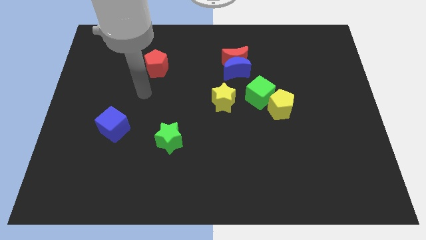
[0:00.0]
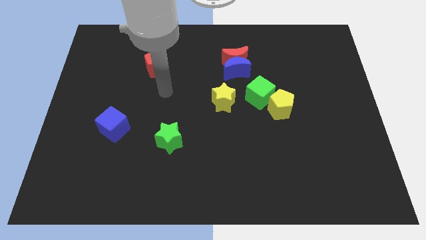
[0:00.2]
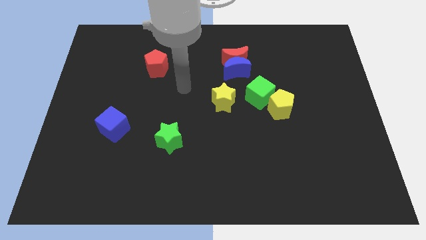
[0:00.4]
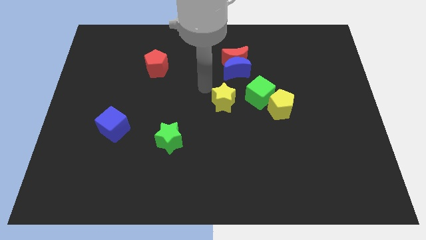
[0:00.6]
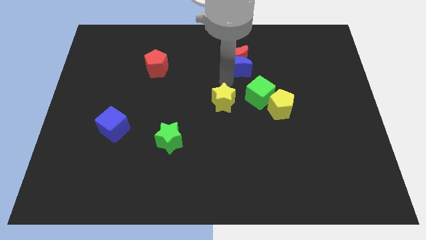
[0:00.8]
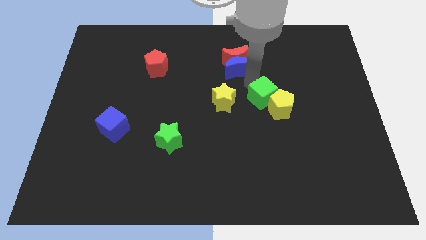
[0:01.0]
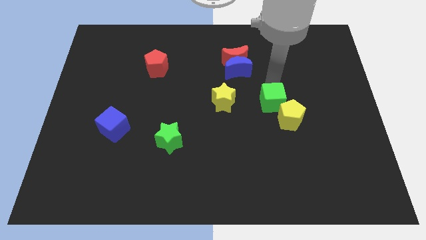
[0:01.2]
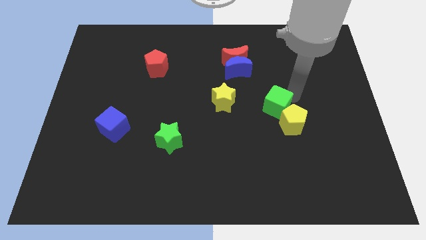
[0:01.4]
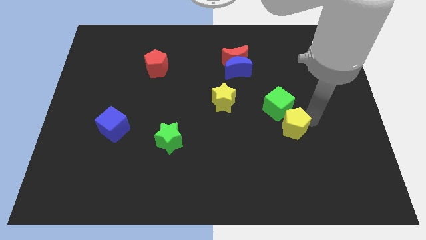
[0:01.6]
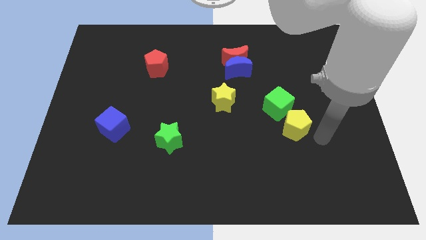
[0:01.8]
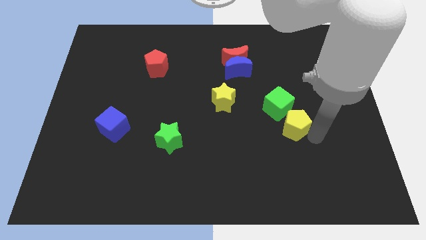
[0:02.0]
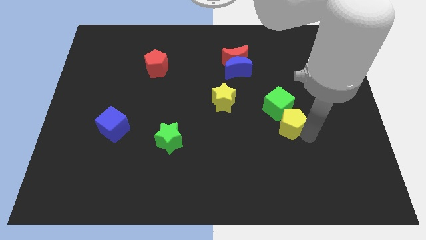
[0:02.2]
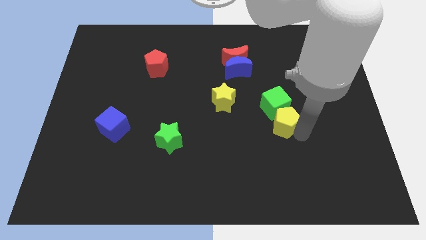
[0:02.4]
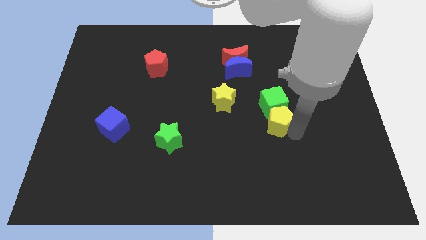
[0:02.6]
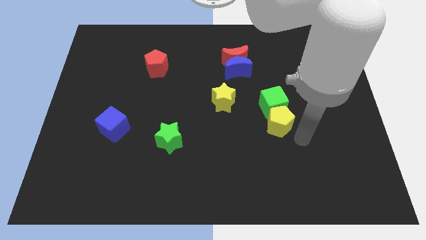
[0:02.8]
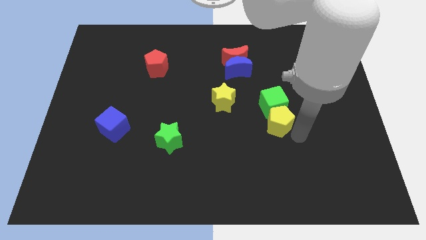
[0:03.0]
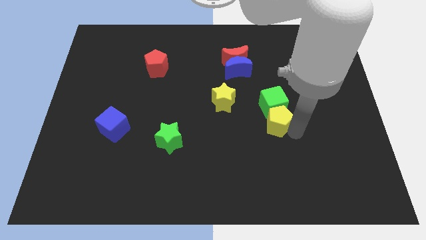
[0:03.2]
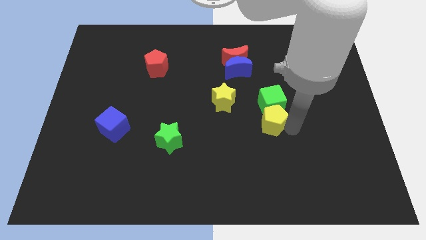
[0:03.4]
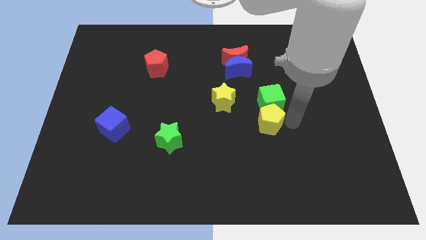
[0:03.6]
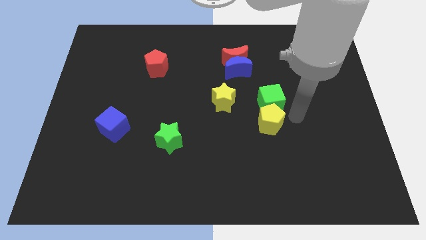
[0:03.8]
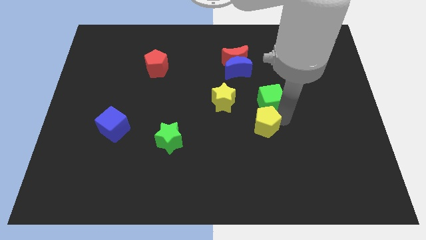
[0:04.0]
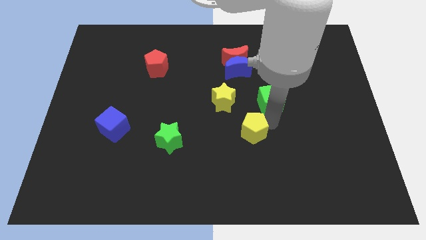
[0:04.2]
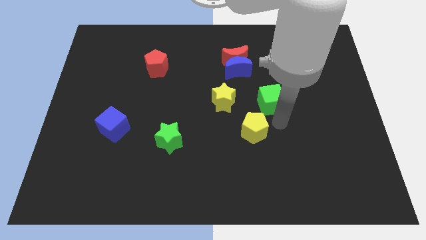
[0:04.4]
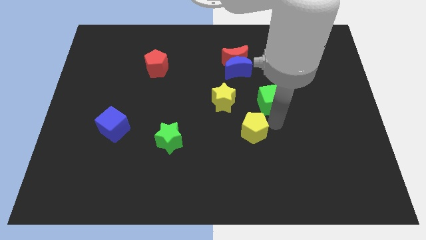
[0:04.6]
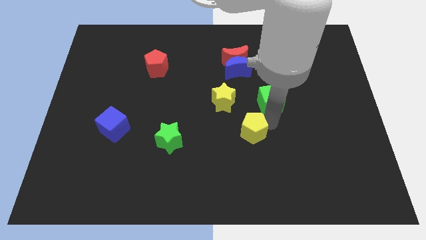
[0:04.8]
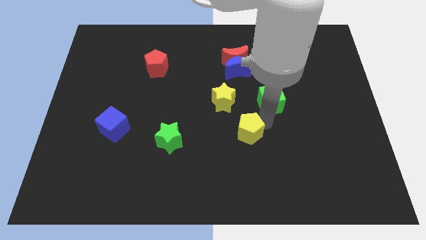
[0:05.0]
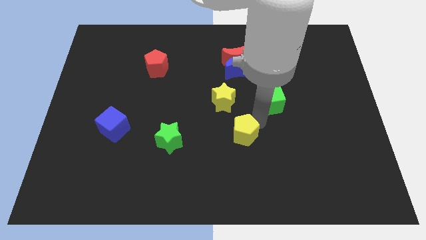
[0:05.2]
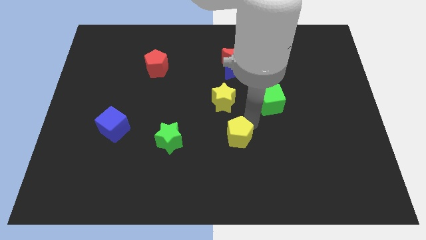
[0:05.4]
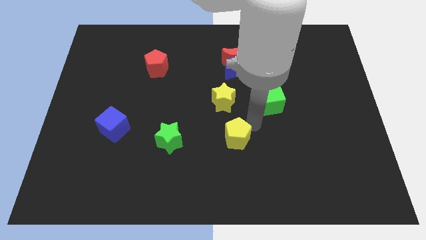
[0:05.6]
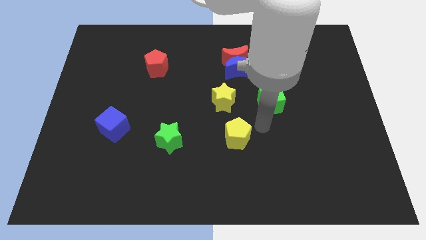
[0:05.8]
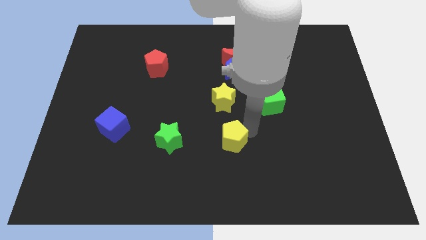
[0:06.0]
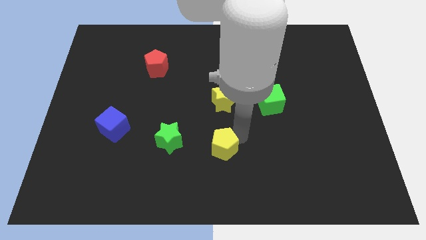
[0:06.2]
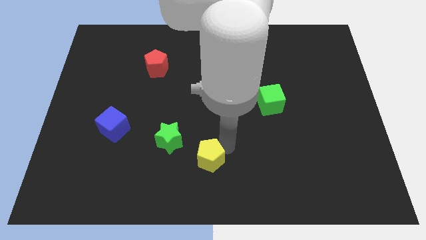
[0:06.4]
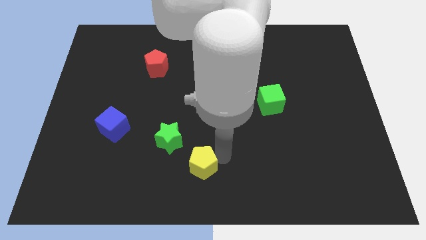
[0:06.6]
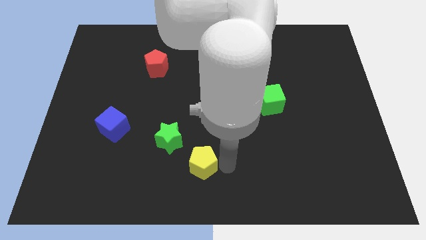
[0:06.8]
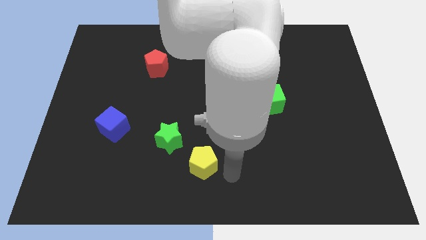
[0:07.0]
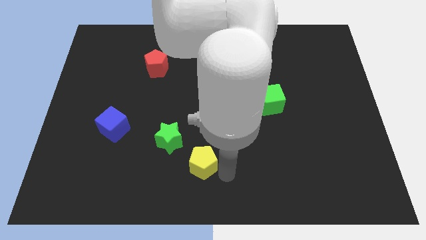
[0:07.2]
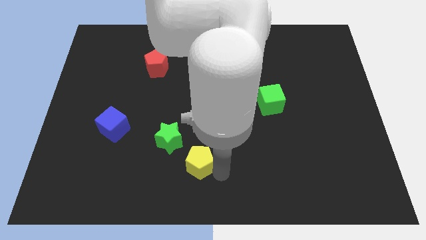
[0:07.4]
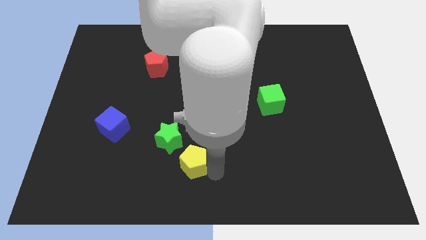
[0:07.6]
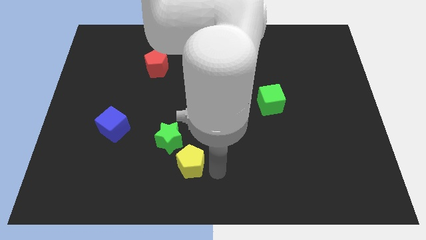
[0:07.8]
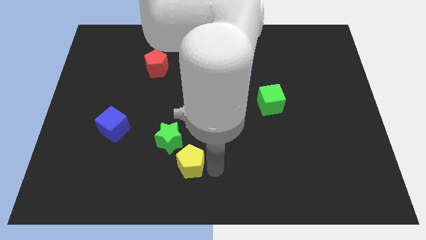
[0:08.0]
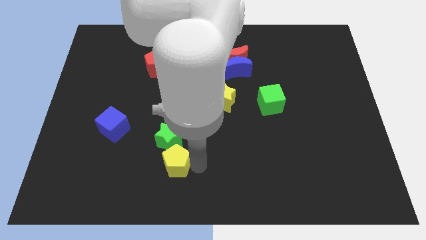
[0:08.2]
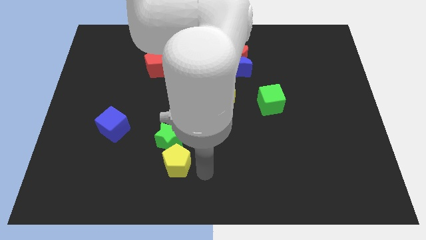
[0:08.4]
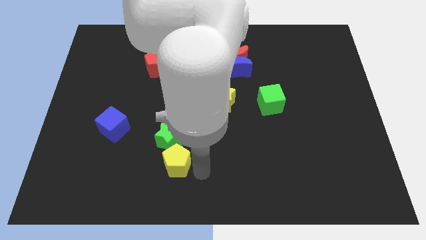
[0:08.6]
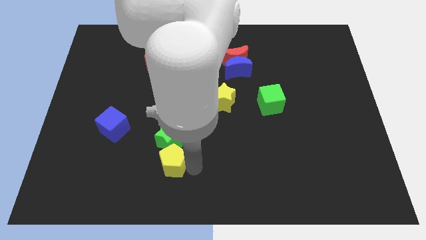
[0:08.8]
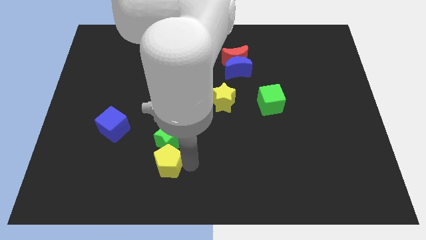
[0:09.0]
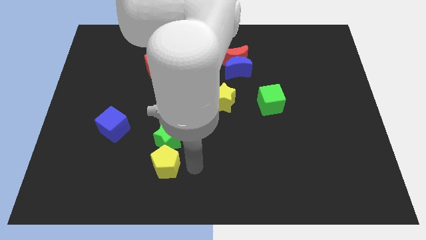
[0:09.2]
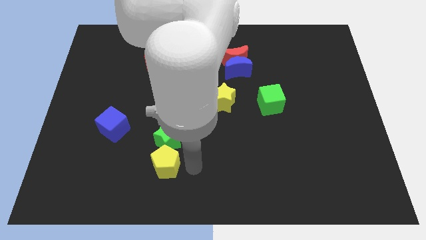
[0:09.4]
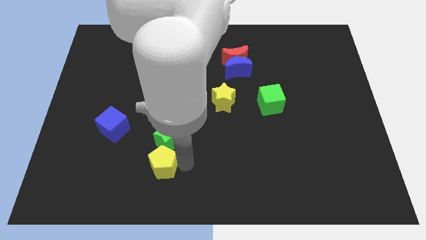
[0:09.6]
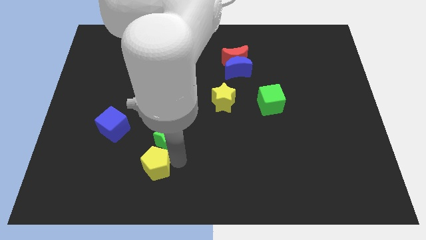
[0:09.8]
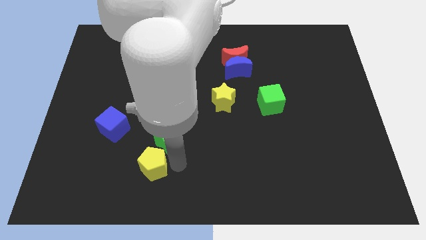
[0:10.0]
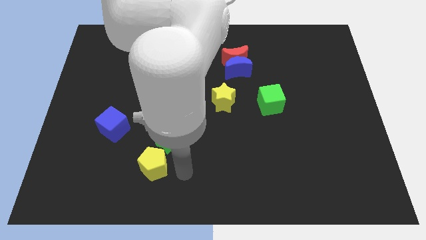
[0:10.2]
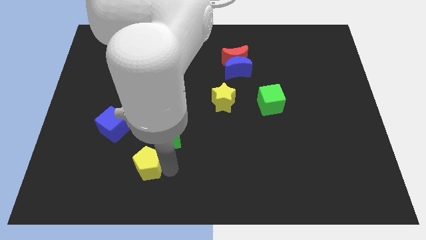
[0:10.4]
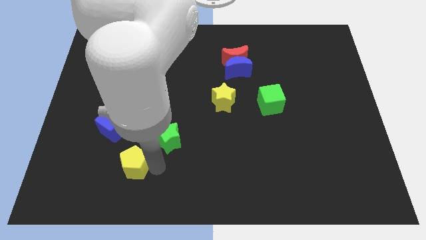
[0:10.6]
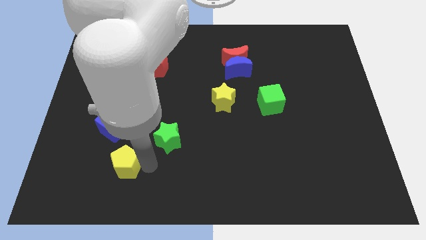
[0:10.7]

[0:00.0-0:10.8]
slide the yellow pentagon to the bottom side of the blue cube

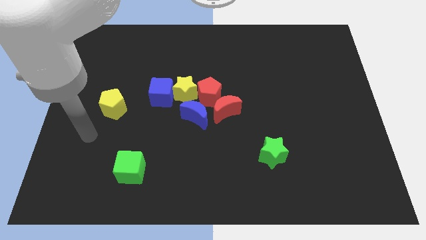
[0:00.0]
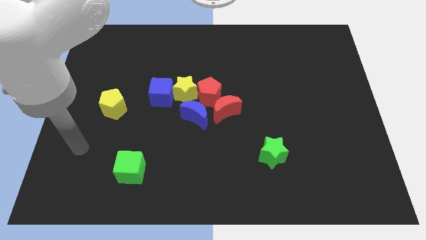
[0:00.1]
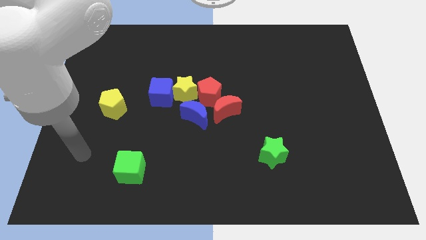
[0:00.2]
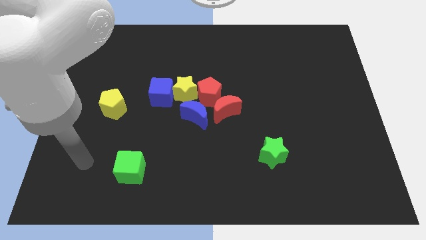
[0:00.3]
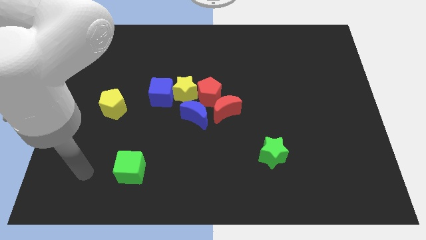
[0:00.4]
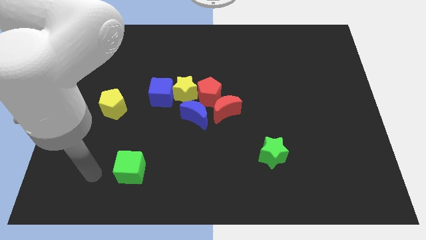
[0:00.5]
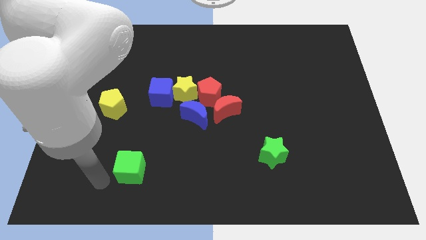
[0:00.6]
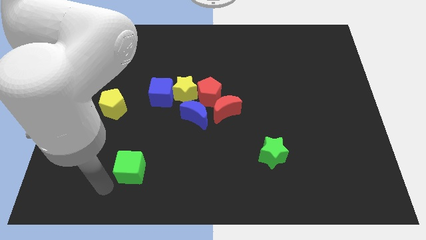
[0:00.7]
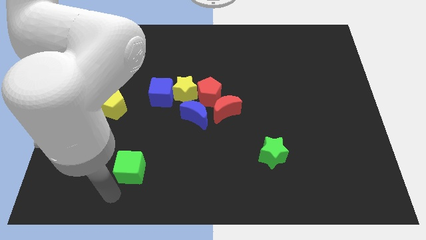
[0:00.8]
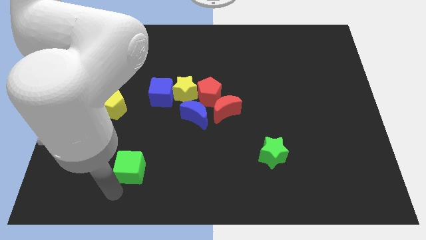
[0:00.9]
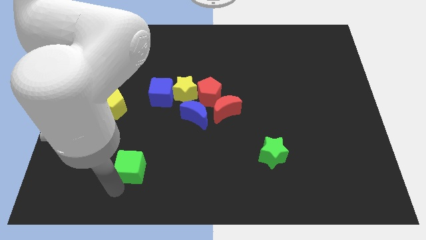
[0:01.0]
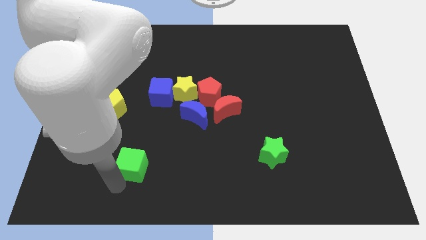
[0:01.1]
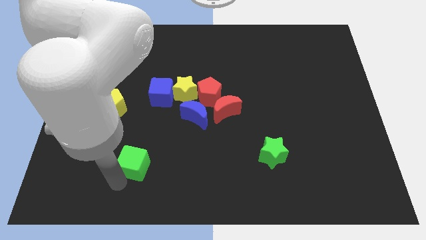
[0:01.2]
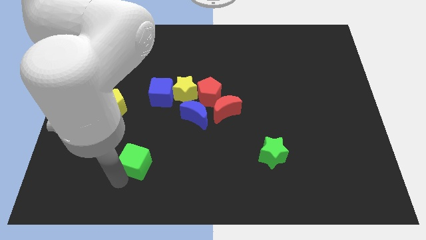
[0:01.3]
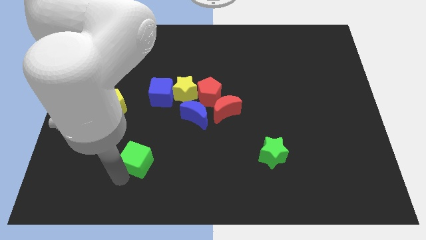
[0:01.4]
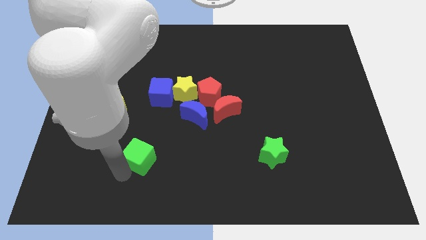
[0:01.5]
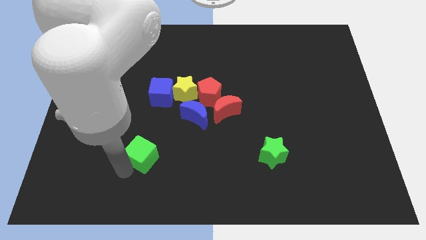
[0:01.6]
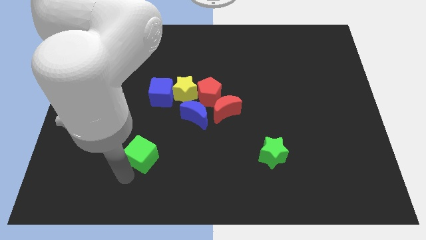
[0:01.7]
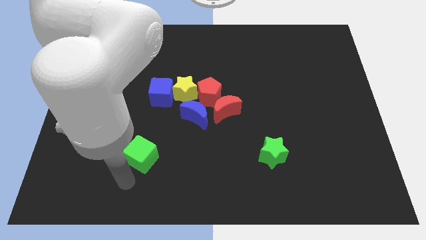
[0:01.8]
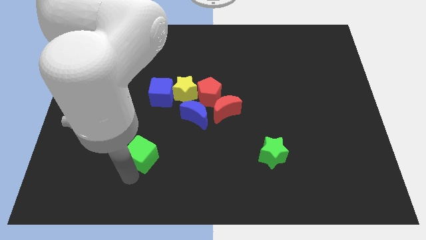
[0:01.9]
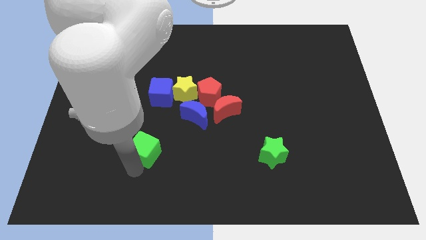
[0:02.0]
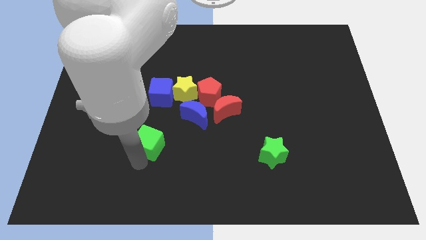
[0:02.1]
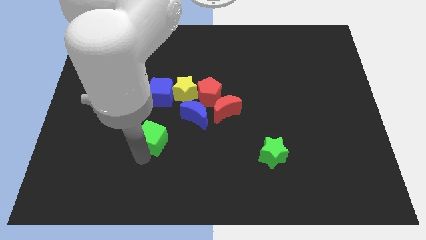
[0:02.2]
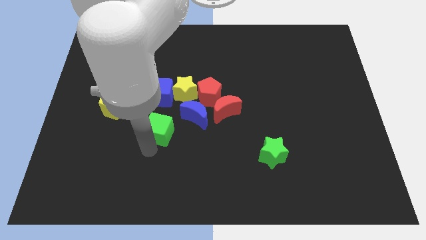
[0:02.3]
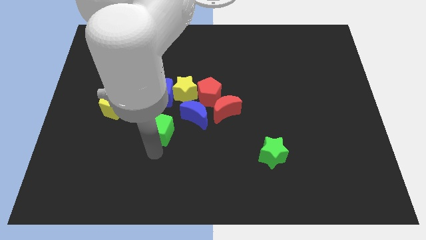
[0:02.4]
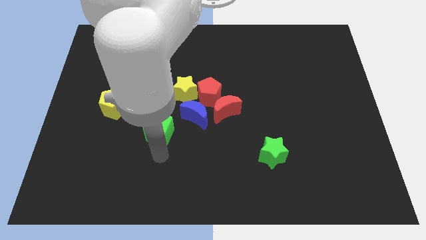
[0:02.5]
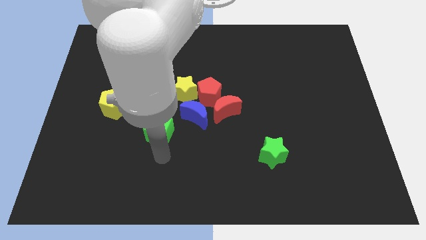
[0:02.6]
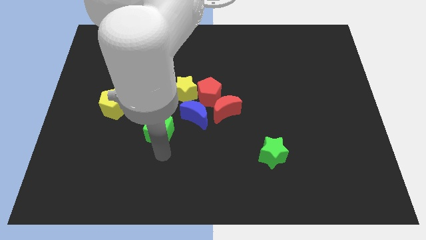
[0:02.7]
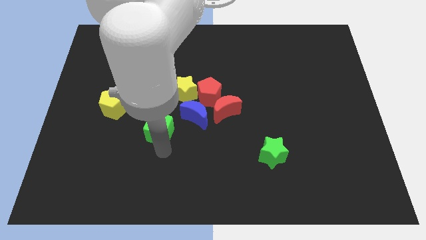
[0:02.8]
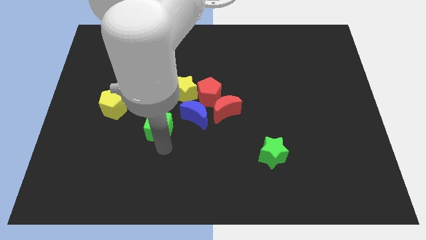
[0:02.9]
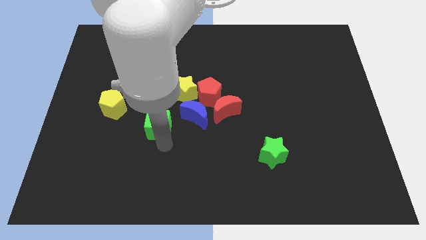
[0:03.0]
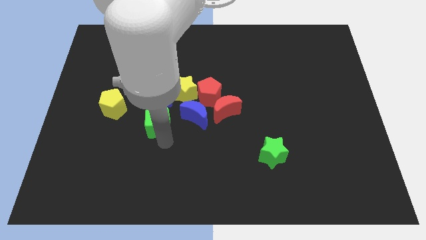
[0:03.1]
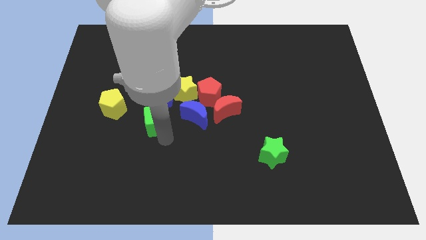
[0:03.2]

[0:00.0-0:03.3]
slide the green cube to the right of the yellow pentagon
